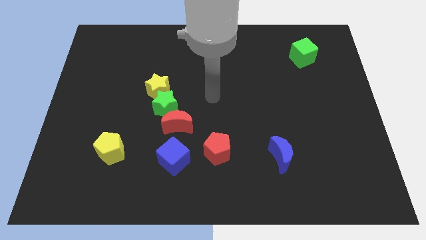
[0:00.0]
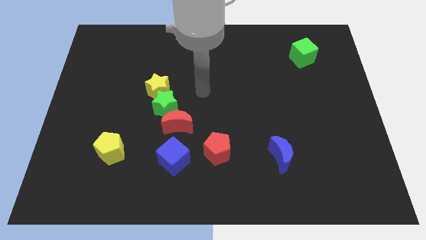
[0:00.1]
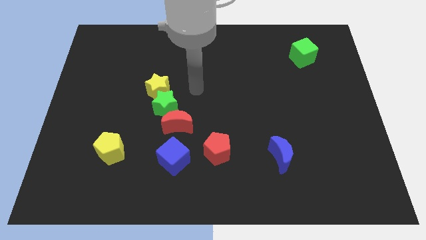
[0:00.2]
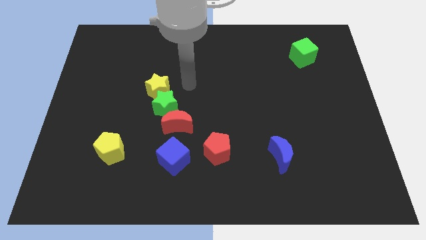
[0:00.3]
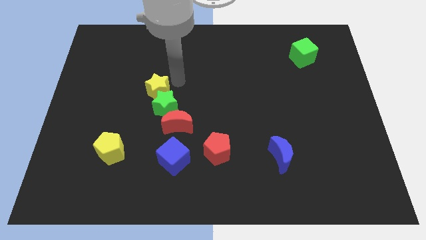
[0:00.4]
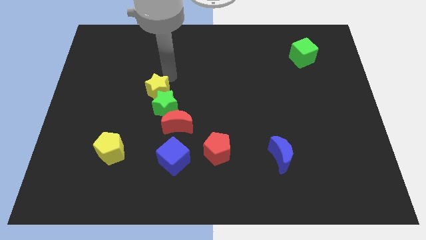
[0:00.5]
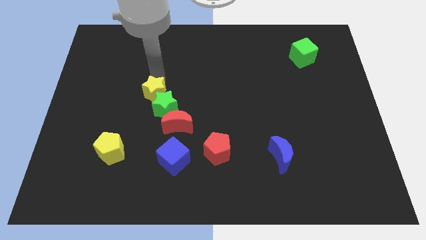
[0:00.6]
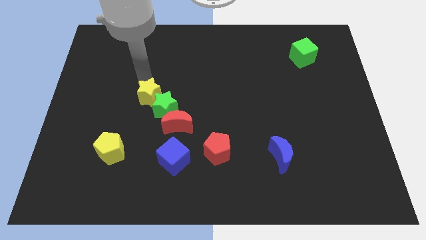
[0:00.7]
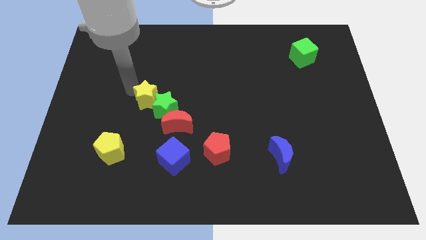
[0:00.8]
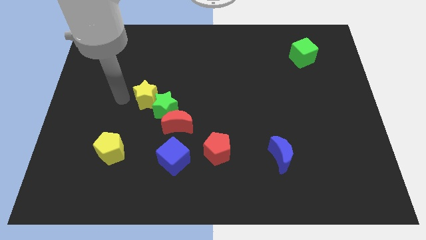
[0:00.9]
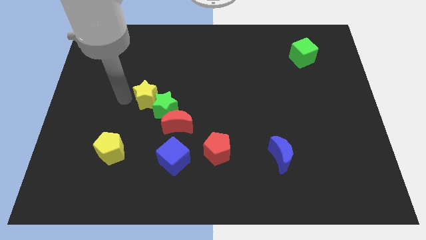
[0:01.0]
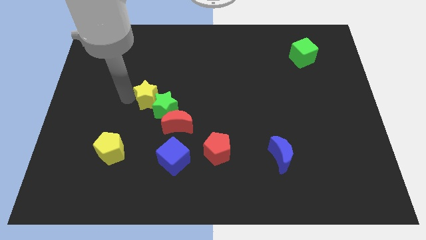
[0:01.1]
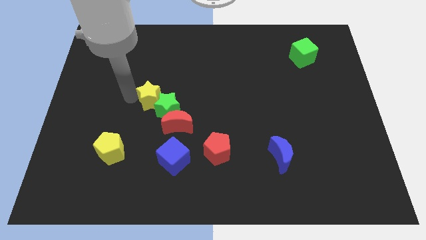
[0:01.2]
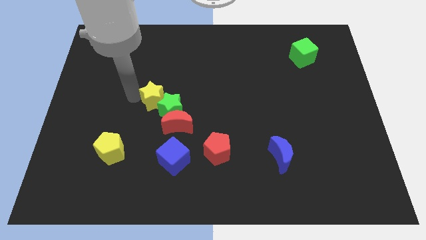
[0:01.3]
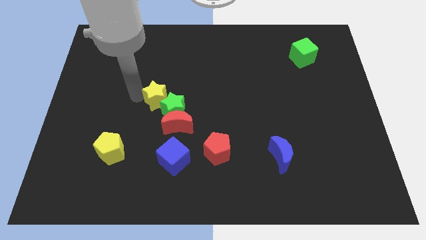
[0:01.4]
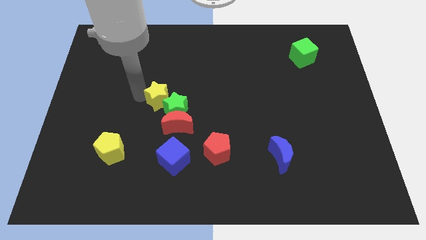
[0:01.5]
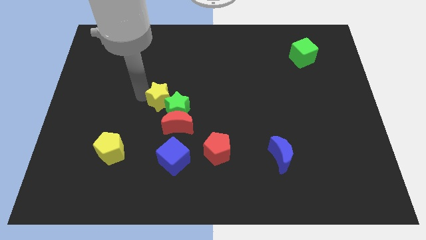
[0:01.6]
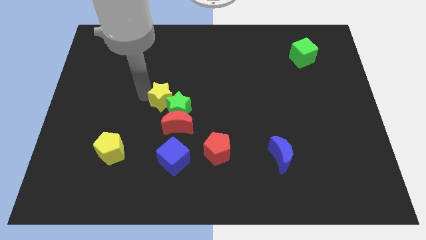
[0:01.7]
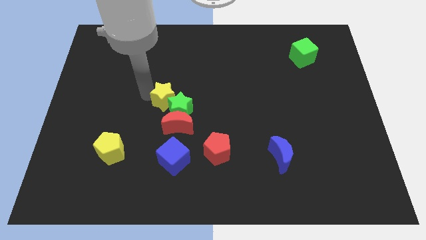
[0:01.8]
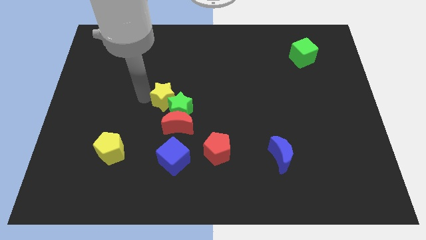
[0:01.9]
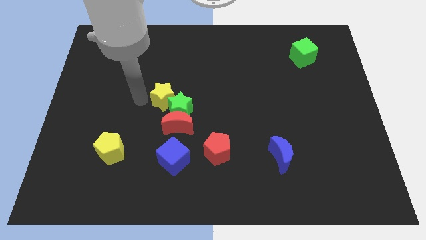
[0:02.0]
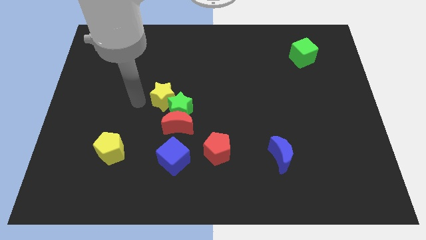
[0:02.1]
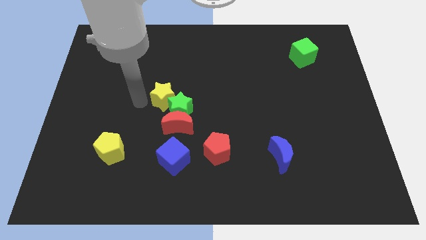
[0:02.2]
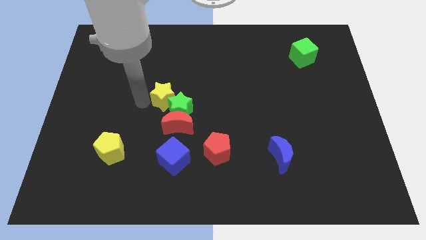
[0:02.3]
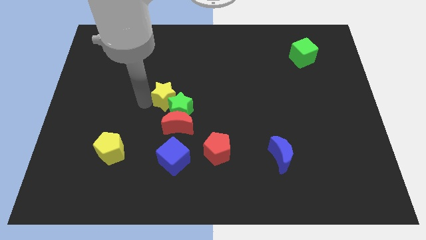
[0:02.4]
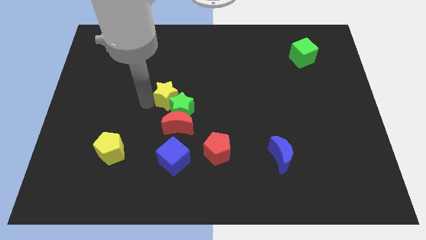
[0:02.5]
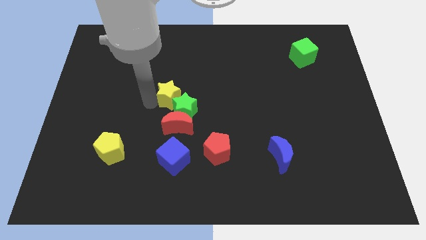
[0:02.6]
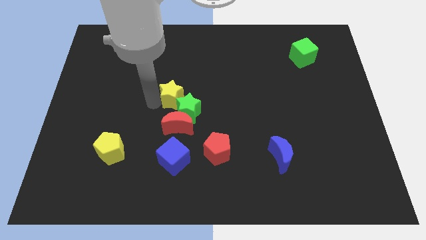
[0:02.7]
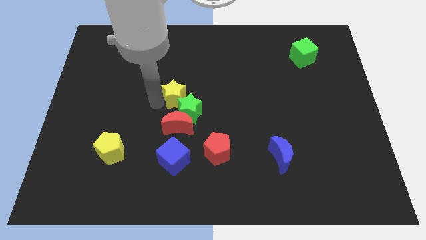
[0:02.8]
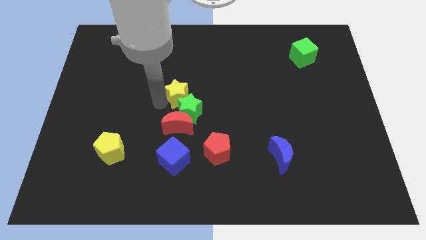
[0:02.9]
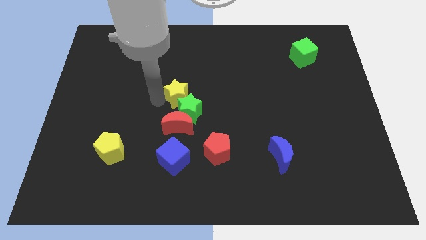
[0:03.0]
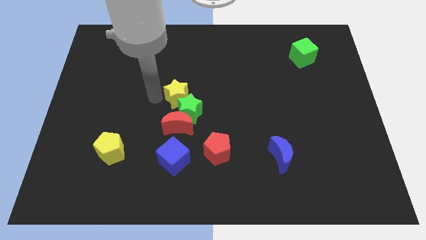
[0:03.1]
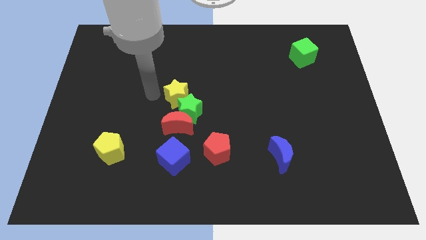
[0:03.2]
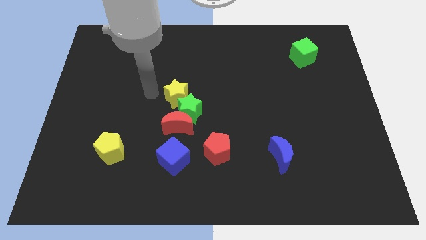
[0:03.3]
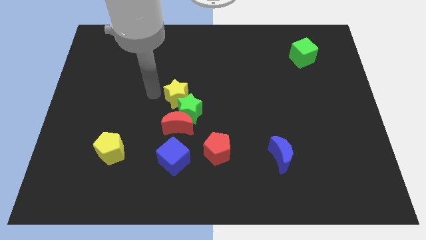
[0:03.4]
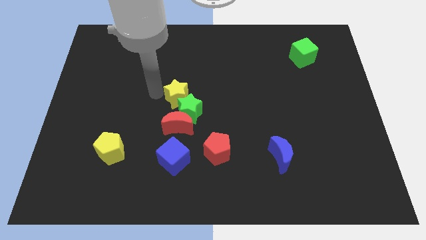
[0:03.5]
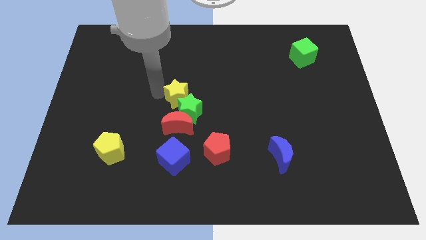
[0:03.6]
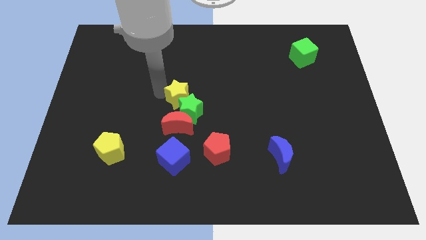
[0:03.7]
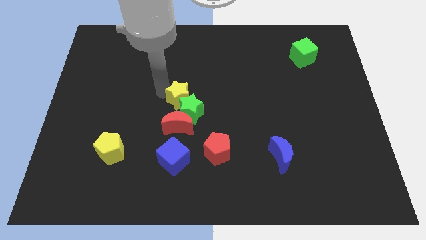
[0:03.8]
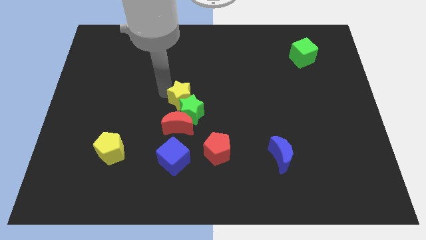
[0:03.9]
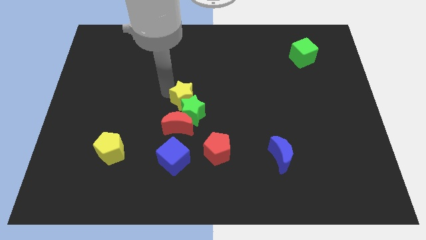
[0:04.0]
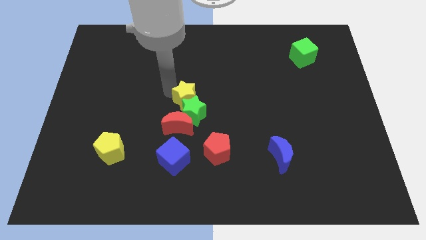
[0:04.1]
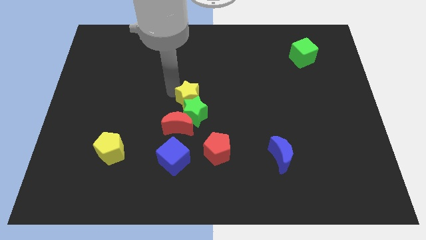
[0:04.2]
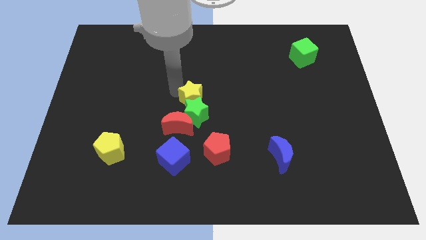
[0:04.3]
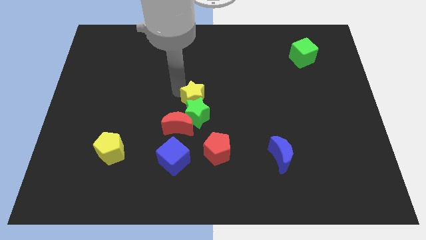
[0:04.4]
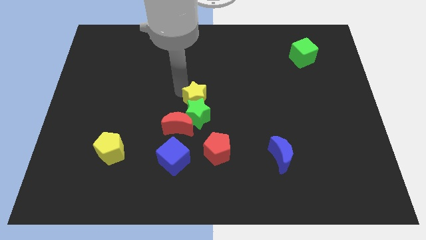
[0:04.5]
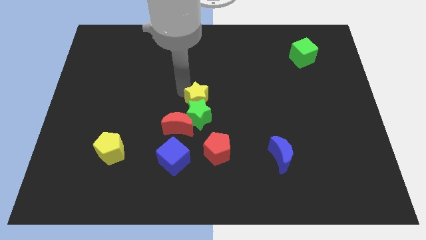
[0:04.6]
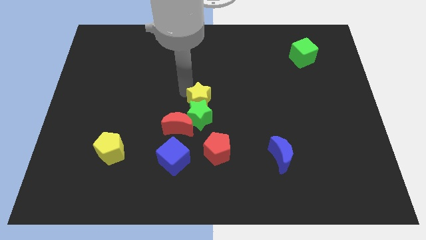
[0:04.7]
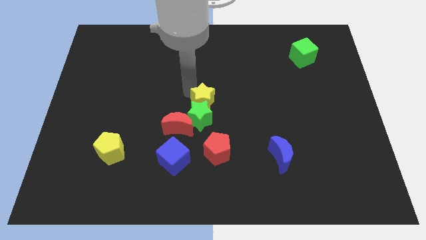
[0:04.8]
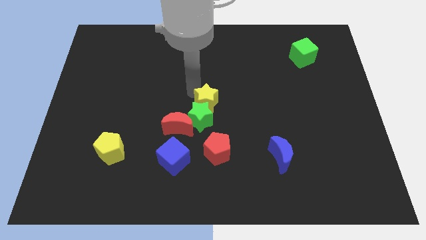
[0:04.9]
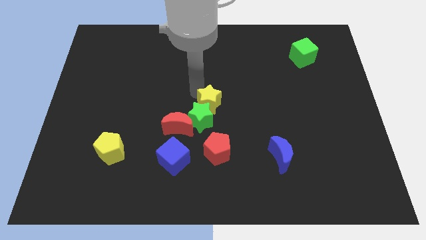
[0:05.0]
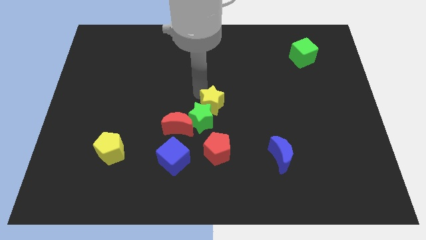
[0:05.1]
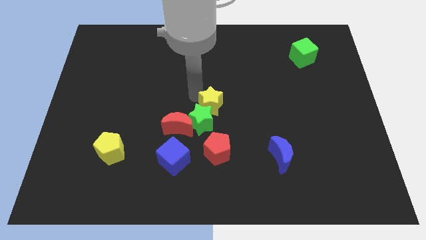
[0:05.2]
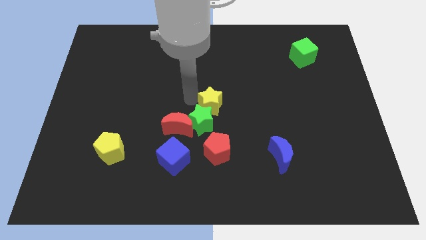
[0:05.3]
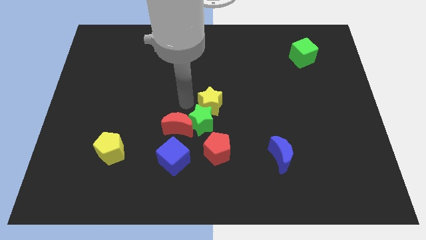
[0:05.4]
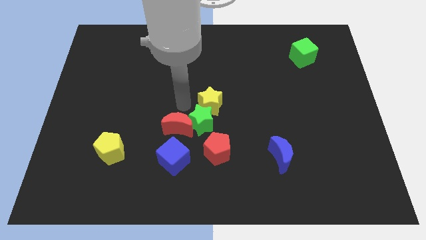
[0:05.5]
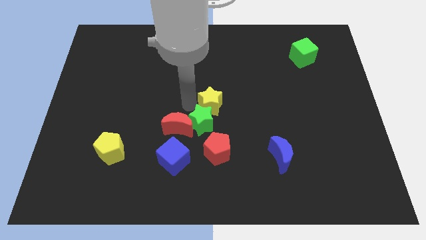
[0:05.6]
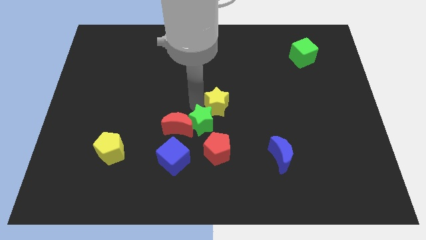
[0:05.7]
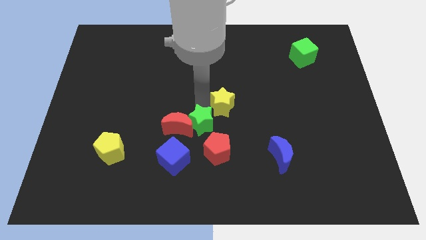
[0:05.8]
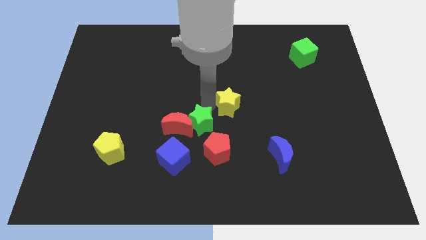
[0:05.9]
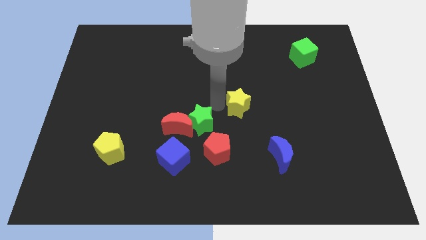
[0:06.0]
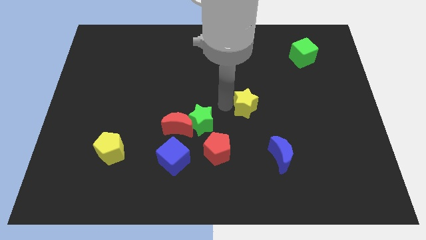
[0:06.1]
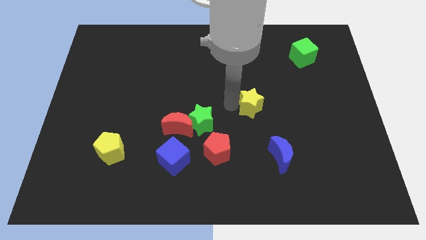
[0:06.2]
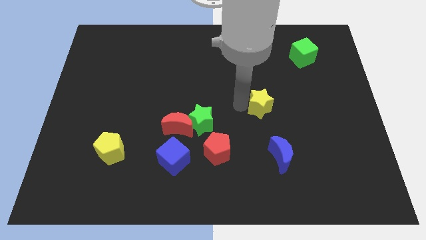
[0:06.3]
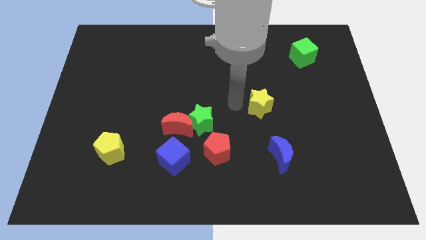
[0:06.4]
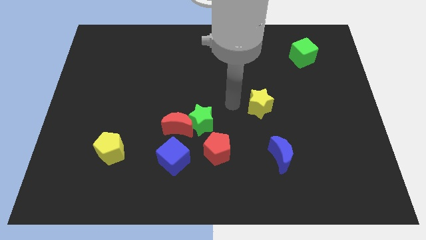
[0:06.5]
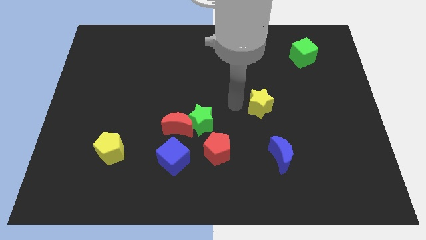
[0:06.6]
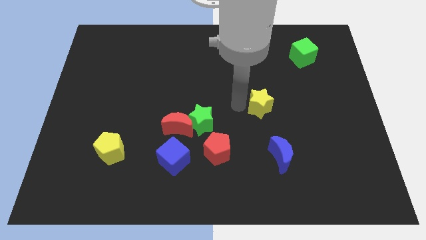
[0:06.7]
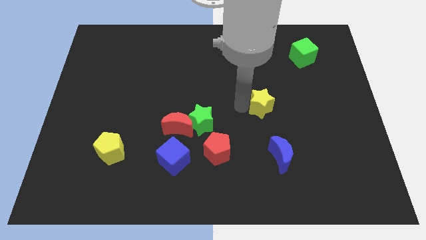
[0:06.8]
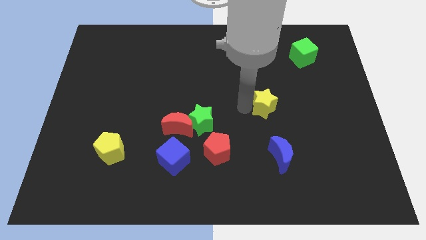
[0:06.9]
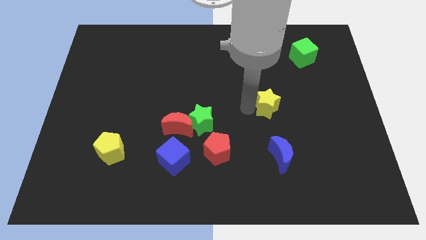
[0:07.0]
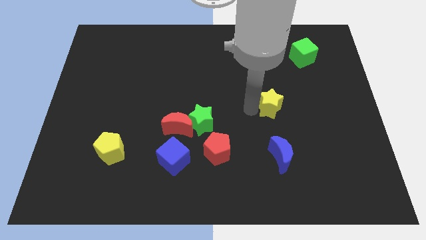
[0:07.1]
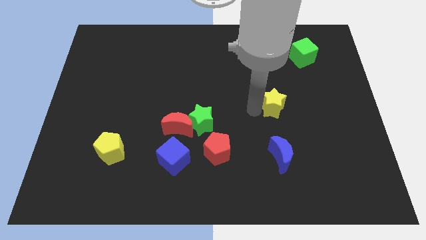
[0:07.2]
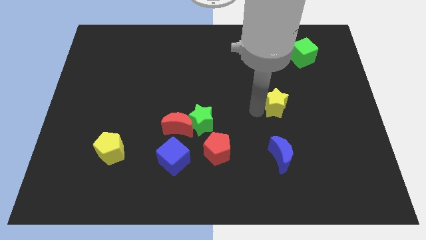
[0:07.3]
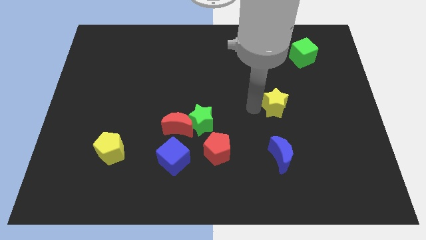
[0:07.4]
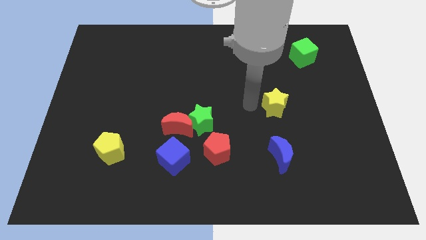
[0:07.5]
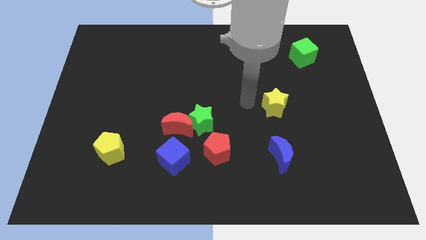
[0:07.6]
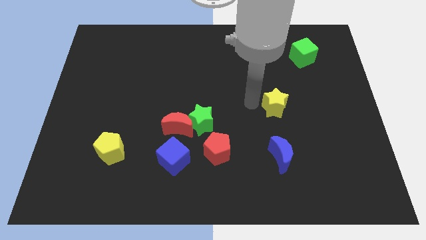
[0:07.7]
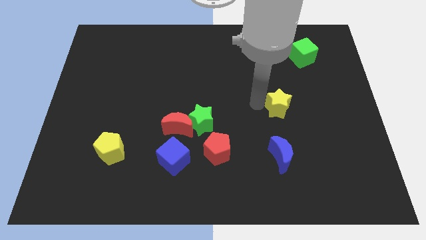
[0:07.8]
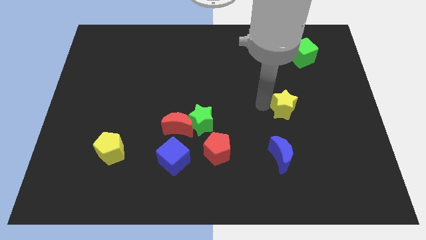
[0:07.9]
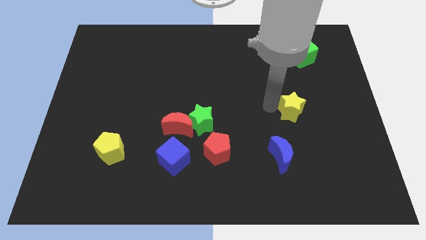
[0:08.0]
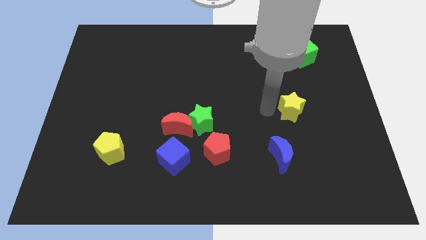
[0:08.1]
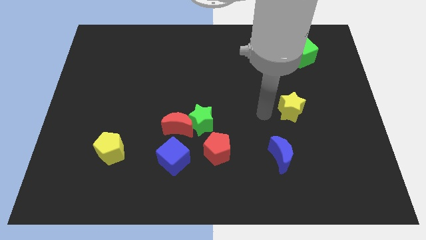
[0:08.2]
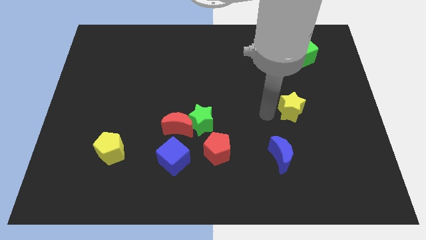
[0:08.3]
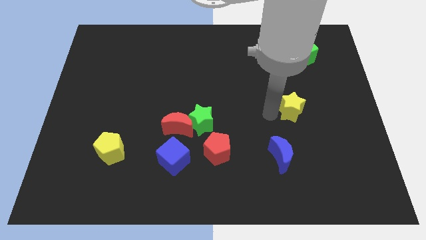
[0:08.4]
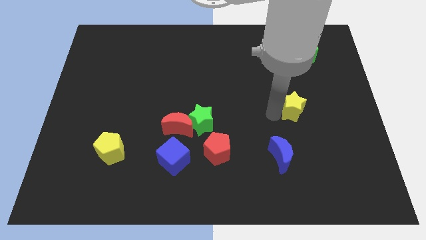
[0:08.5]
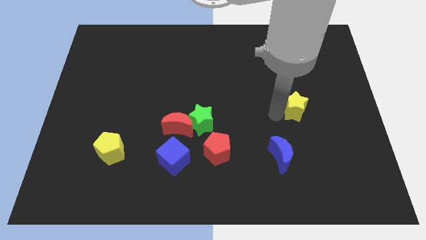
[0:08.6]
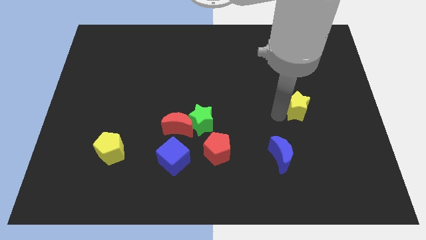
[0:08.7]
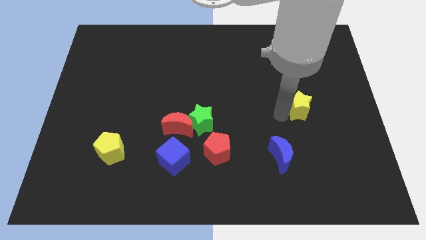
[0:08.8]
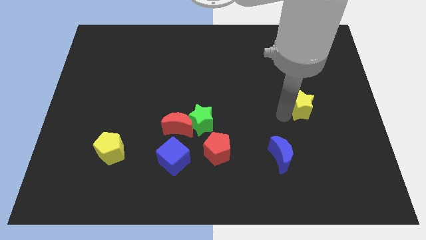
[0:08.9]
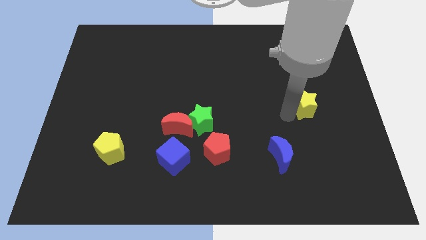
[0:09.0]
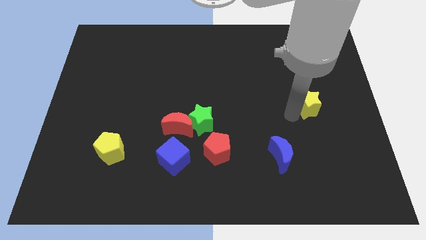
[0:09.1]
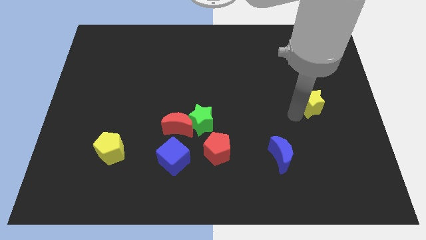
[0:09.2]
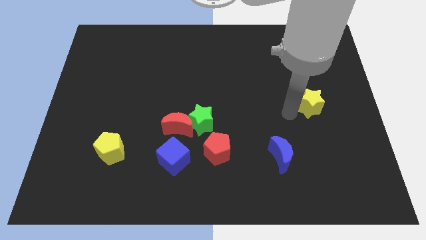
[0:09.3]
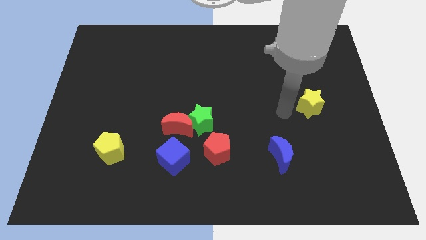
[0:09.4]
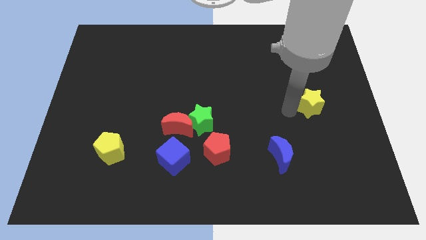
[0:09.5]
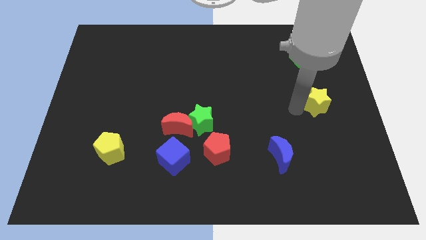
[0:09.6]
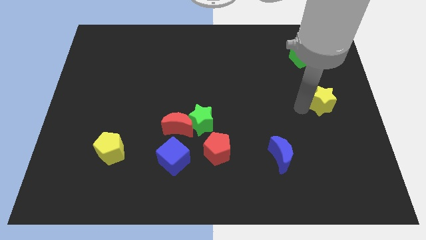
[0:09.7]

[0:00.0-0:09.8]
move the yellow star to the center right
